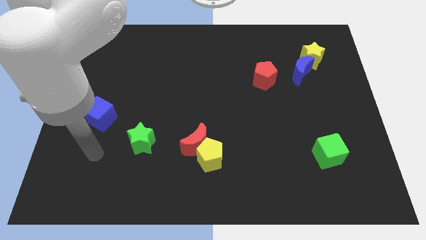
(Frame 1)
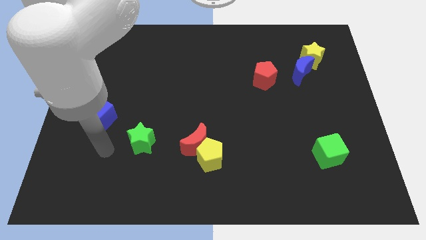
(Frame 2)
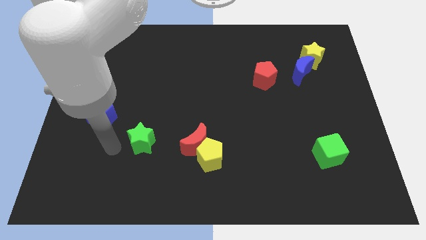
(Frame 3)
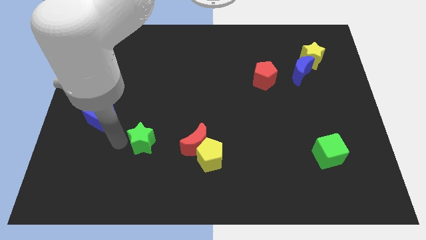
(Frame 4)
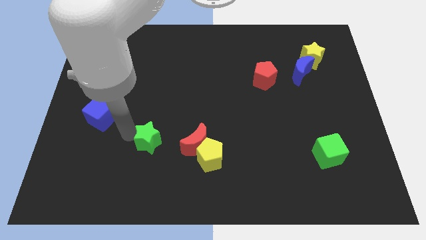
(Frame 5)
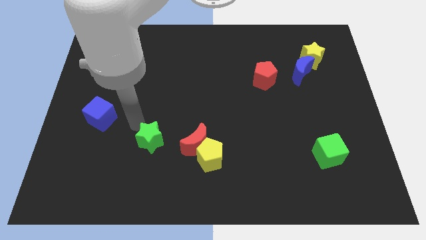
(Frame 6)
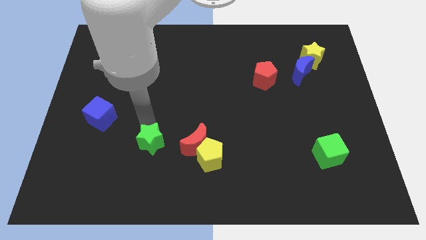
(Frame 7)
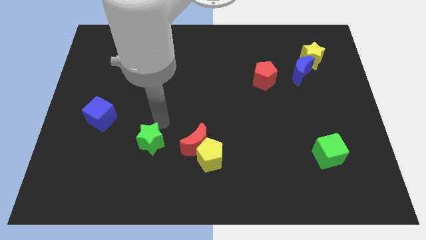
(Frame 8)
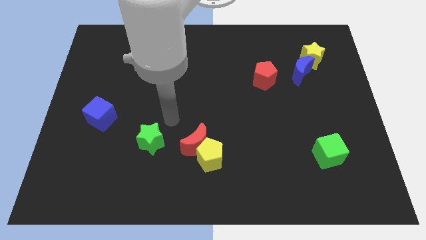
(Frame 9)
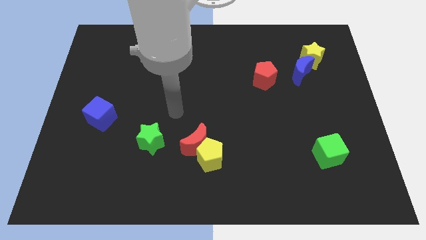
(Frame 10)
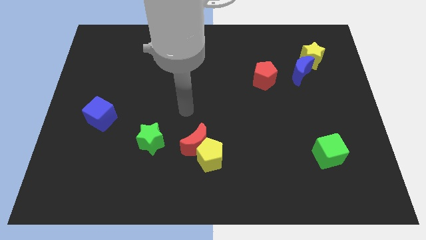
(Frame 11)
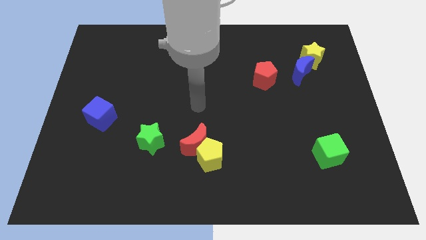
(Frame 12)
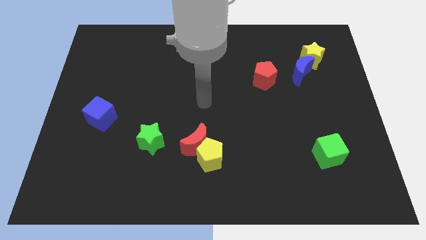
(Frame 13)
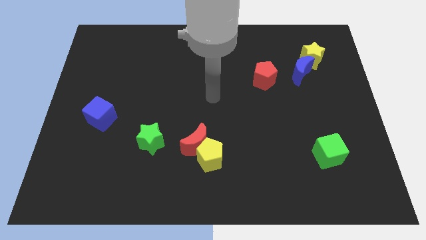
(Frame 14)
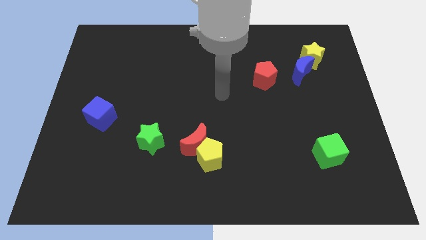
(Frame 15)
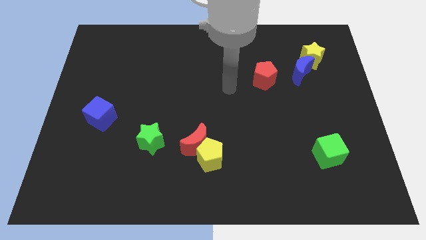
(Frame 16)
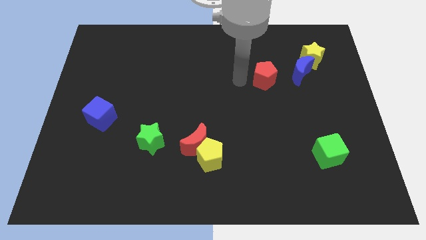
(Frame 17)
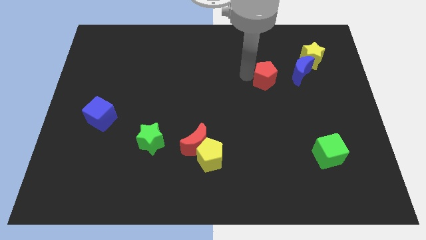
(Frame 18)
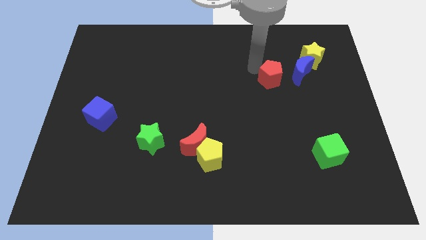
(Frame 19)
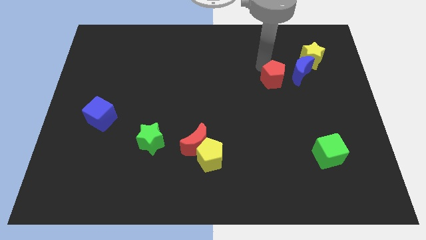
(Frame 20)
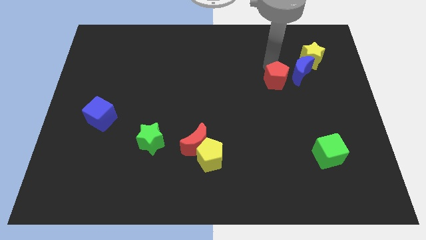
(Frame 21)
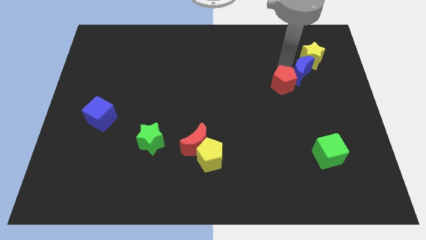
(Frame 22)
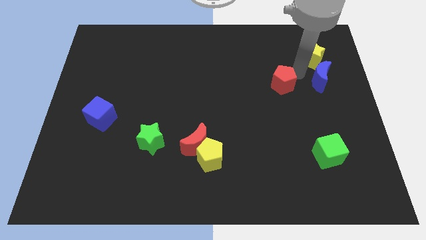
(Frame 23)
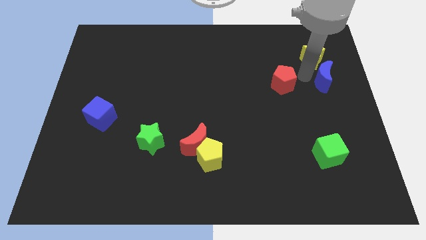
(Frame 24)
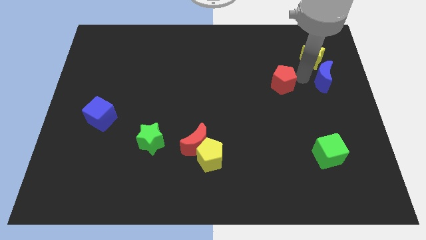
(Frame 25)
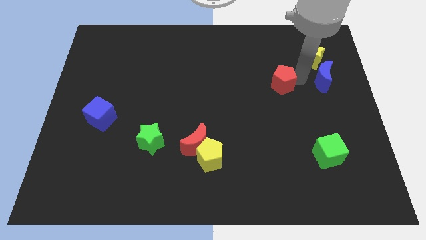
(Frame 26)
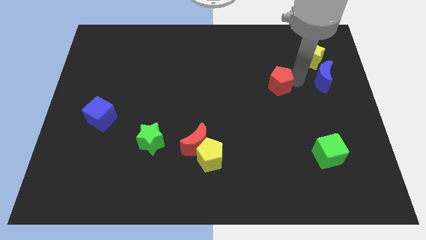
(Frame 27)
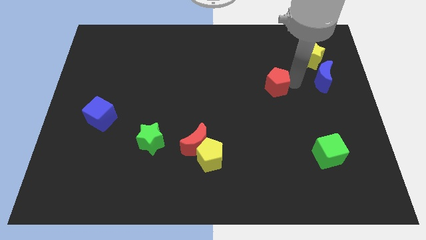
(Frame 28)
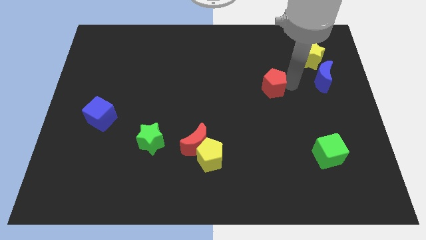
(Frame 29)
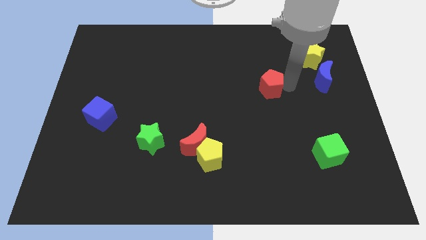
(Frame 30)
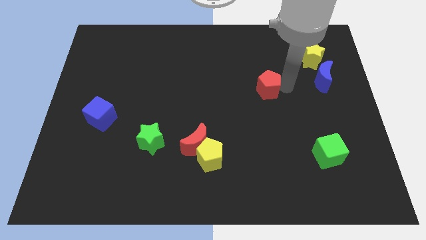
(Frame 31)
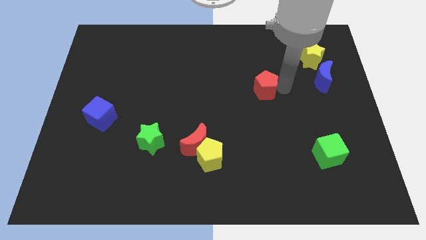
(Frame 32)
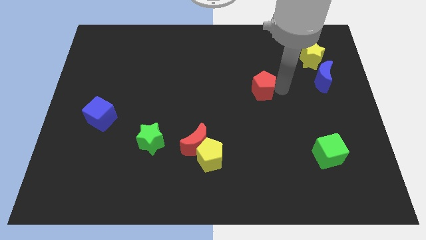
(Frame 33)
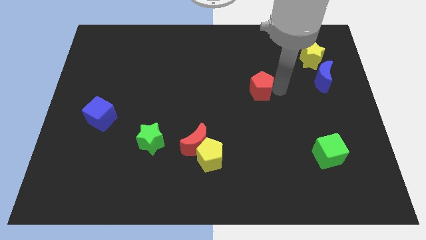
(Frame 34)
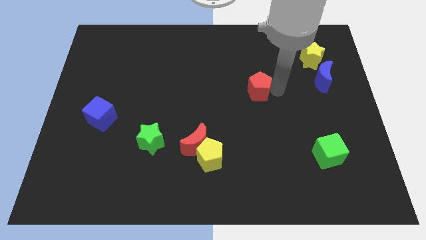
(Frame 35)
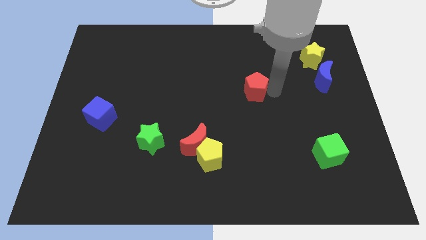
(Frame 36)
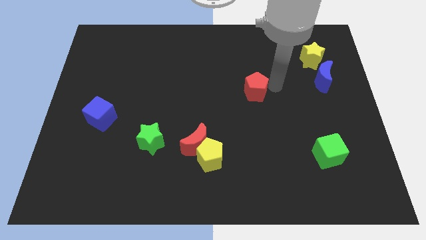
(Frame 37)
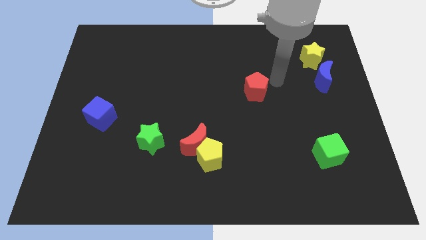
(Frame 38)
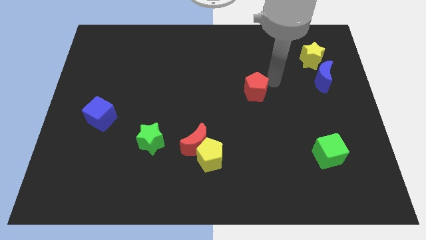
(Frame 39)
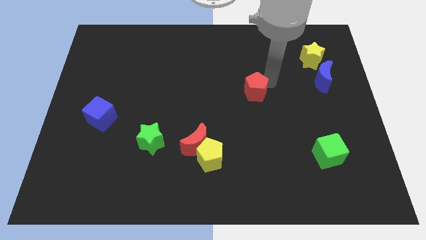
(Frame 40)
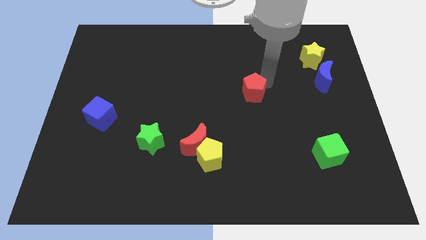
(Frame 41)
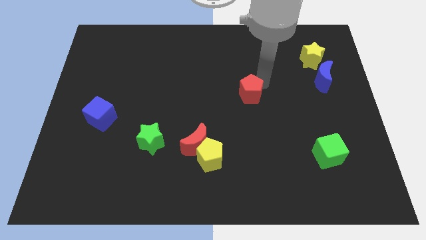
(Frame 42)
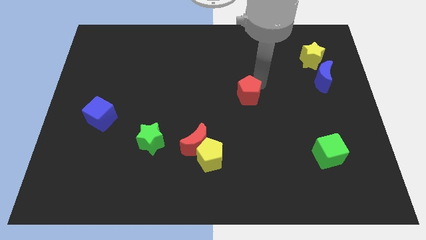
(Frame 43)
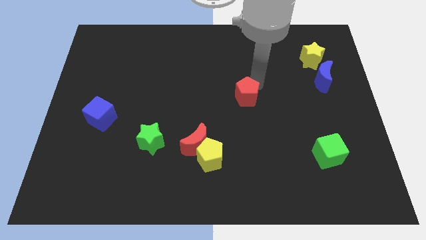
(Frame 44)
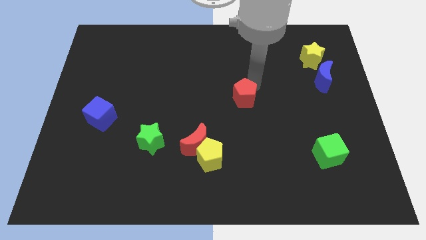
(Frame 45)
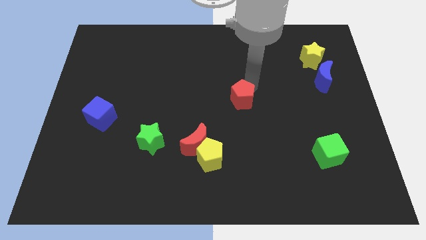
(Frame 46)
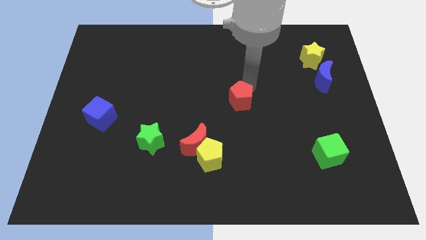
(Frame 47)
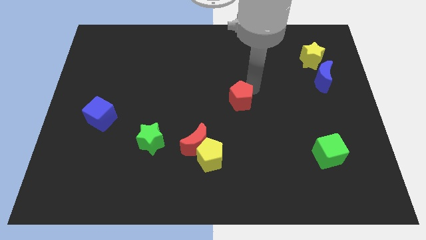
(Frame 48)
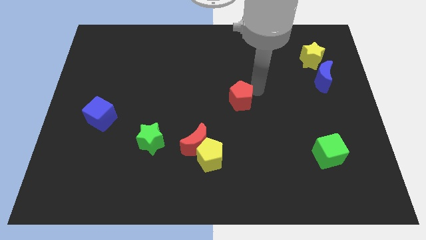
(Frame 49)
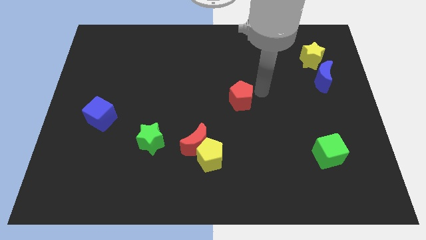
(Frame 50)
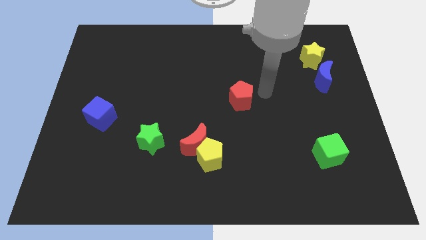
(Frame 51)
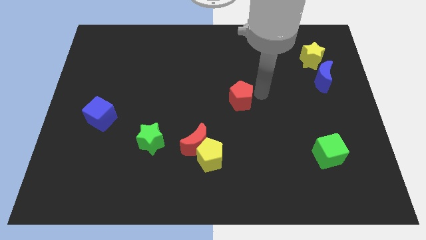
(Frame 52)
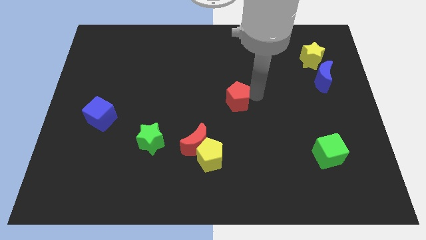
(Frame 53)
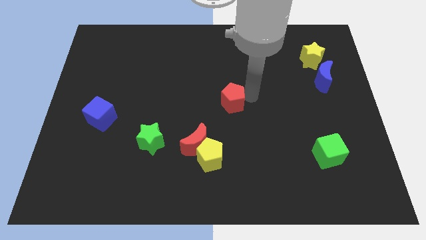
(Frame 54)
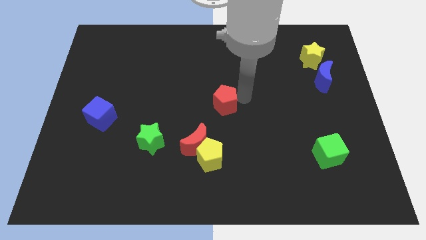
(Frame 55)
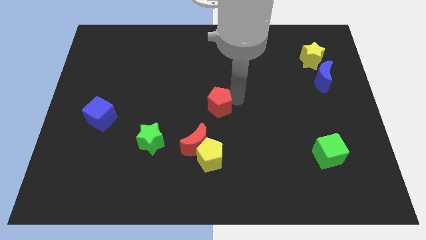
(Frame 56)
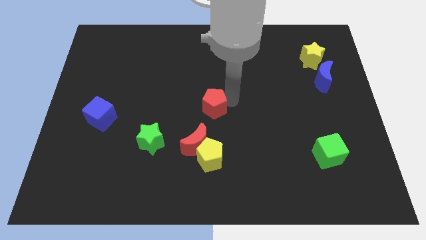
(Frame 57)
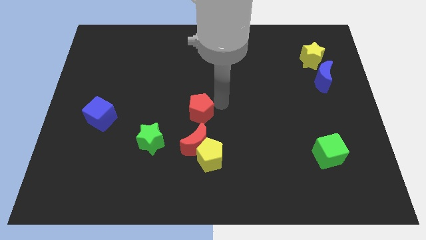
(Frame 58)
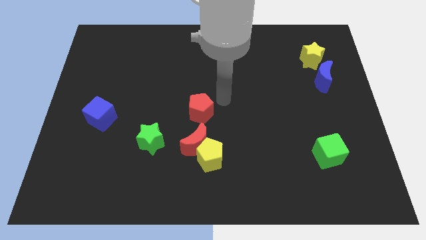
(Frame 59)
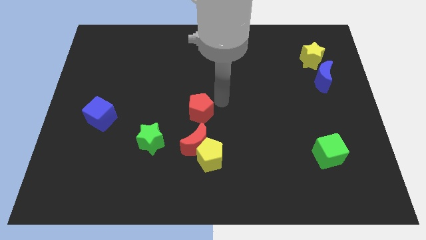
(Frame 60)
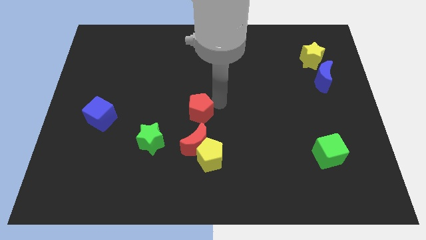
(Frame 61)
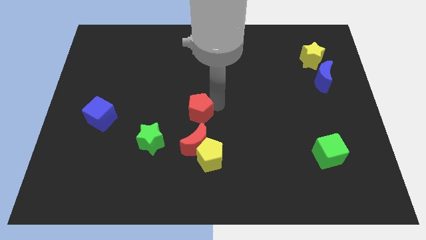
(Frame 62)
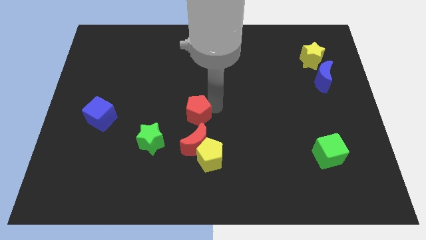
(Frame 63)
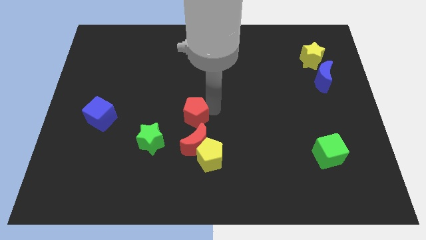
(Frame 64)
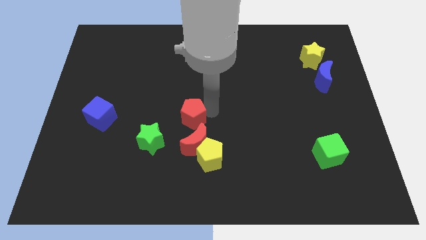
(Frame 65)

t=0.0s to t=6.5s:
put the red pentagon diagonally up and to the left of the red moon

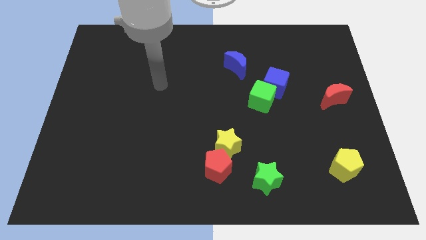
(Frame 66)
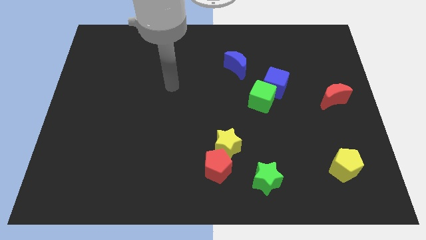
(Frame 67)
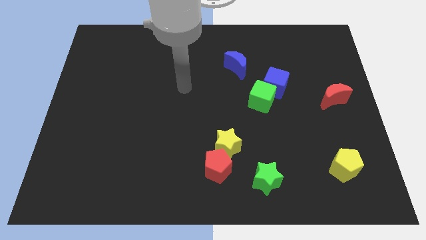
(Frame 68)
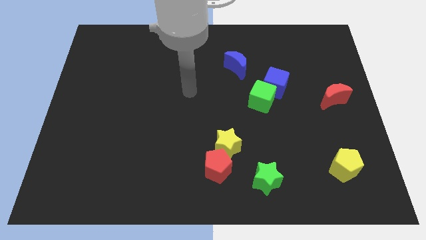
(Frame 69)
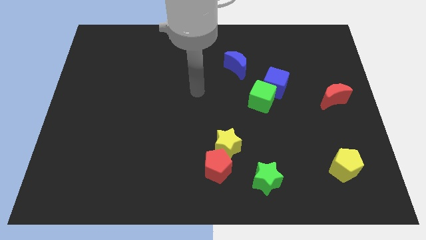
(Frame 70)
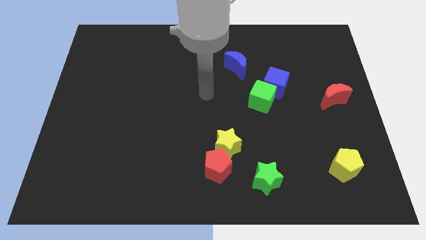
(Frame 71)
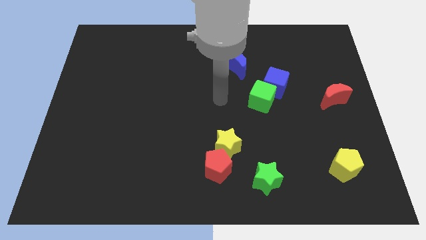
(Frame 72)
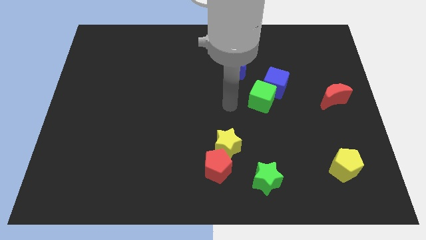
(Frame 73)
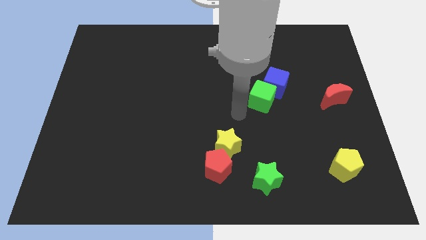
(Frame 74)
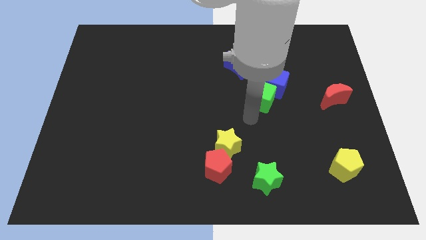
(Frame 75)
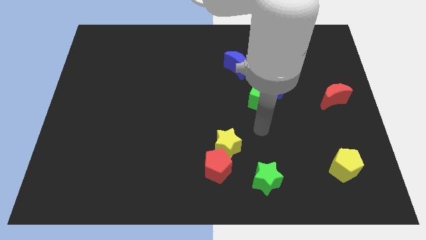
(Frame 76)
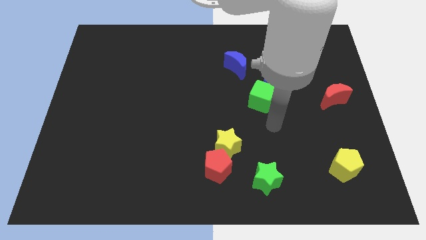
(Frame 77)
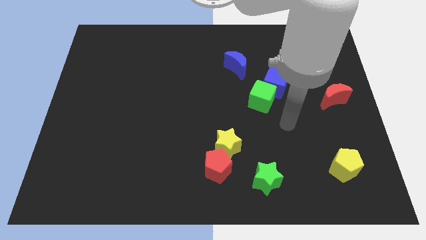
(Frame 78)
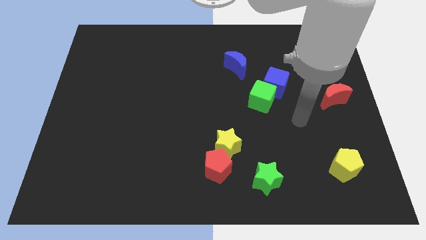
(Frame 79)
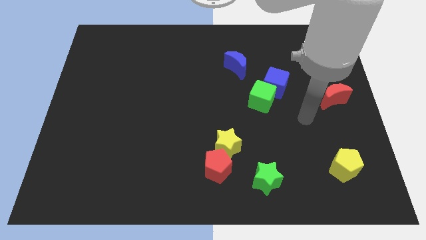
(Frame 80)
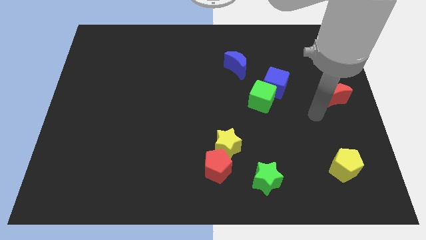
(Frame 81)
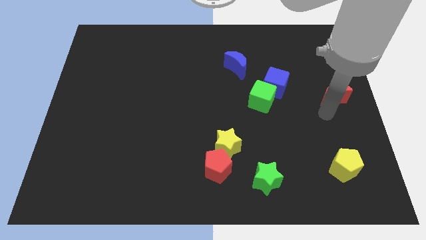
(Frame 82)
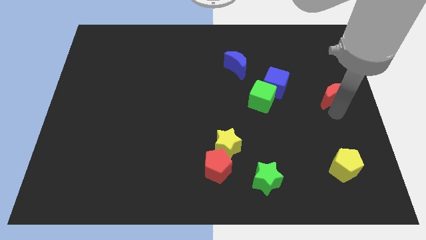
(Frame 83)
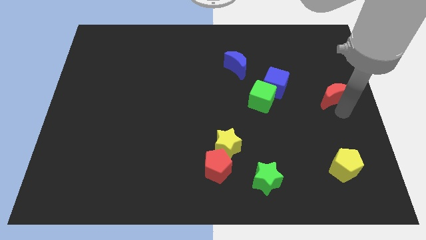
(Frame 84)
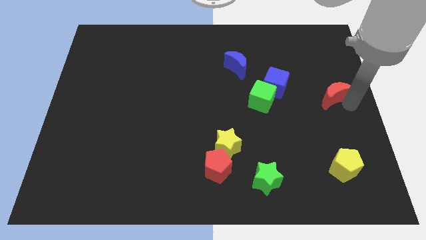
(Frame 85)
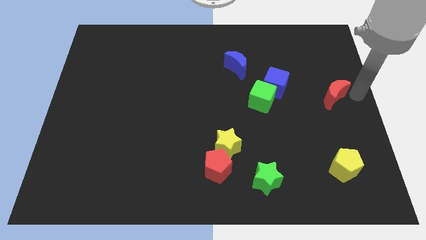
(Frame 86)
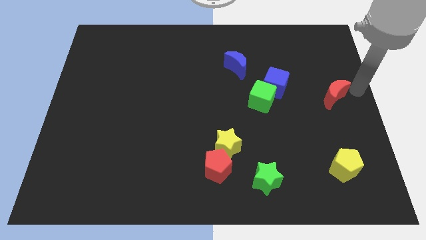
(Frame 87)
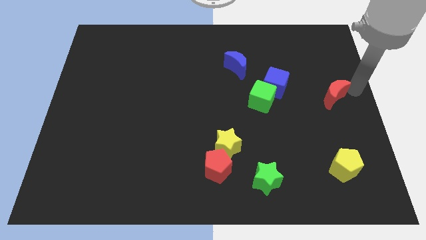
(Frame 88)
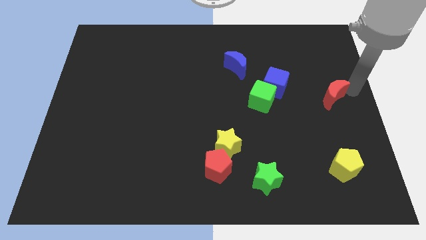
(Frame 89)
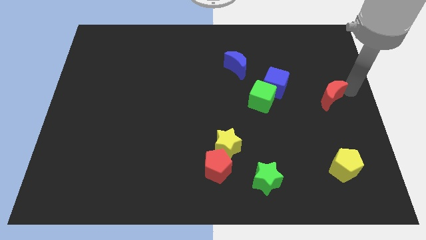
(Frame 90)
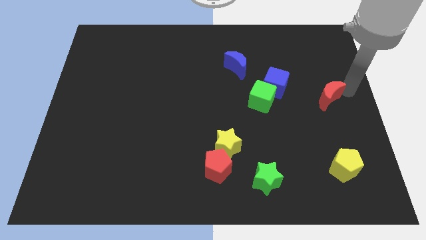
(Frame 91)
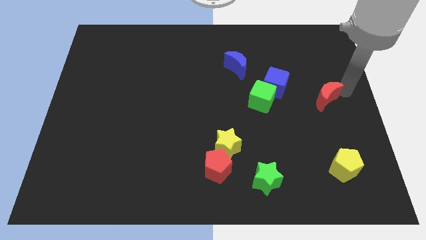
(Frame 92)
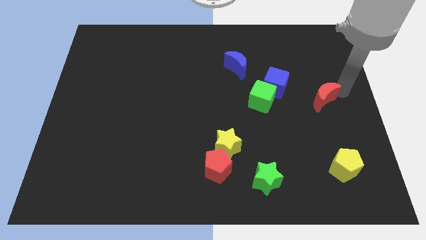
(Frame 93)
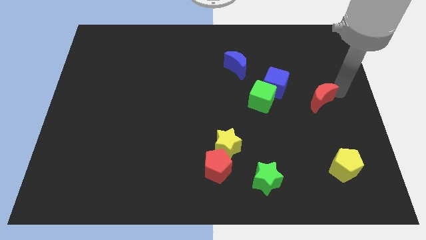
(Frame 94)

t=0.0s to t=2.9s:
slide the red moon diagonally down and to the right of the blue cube
